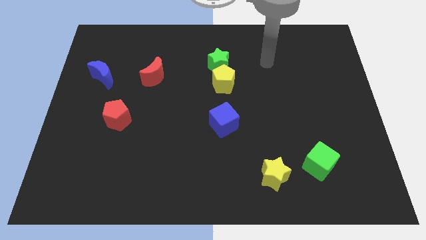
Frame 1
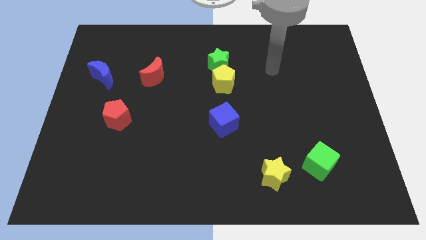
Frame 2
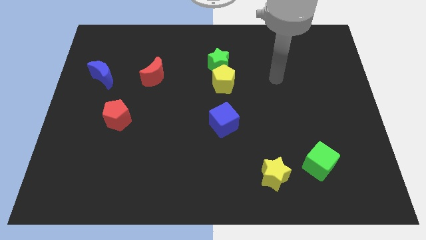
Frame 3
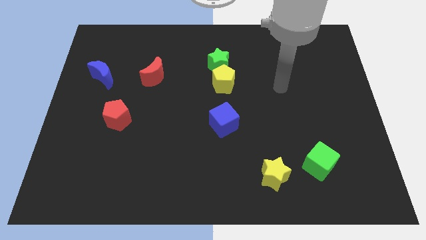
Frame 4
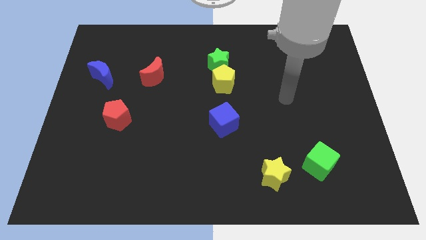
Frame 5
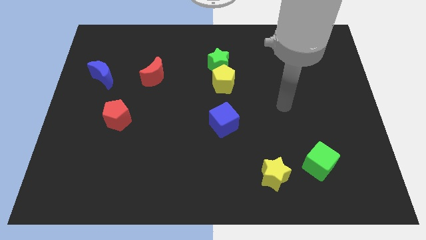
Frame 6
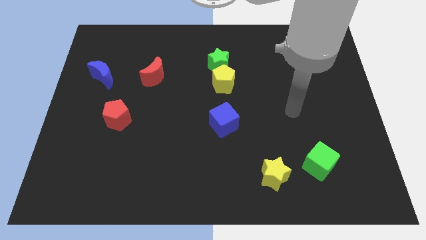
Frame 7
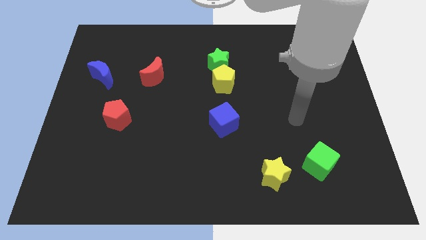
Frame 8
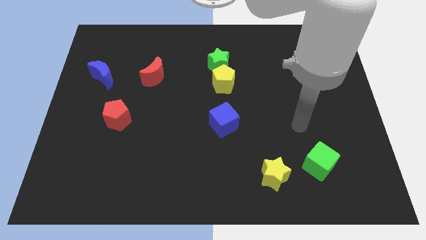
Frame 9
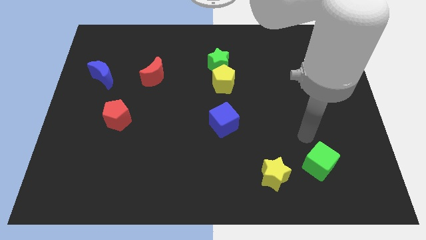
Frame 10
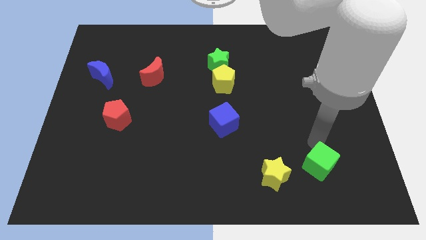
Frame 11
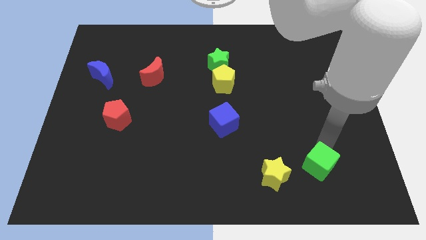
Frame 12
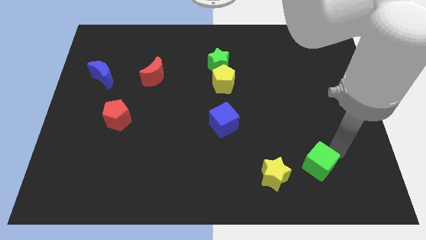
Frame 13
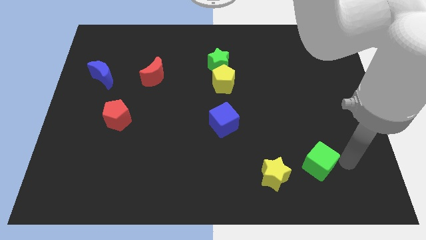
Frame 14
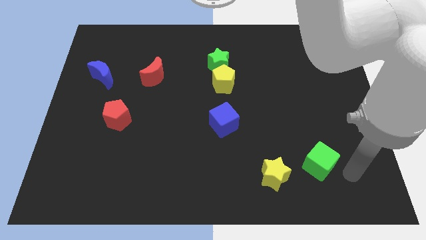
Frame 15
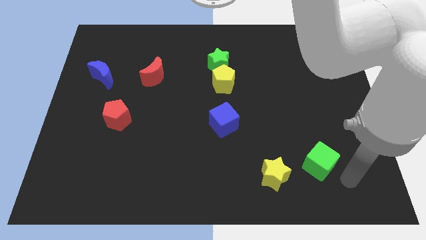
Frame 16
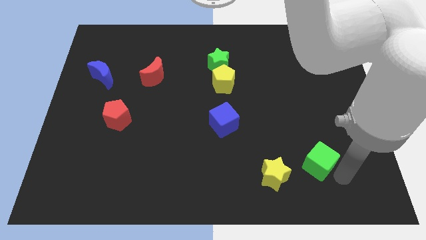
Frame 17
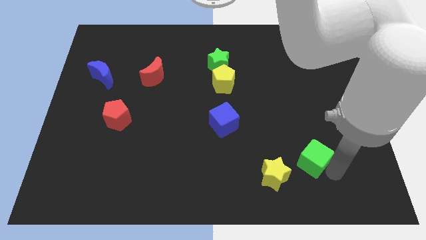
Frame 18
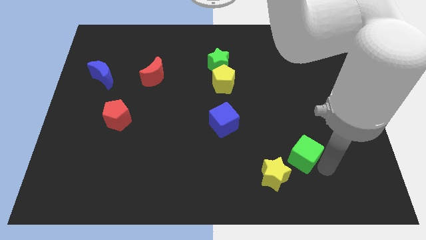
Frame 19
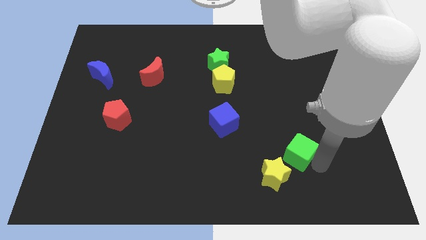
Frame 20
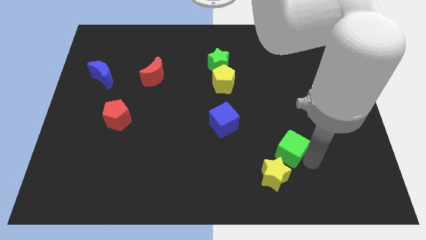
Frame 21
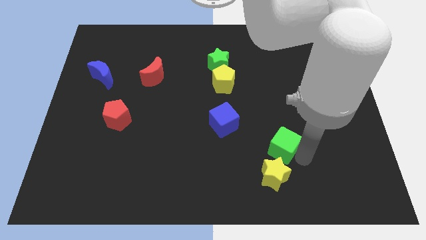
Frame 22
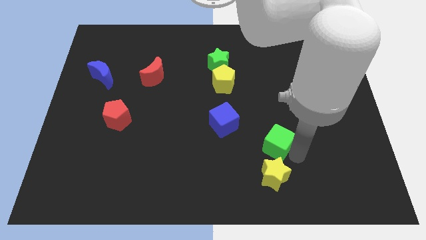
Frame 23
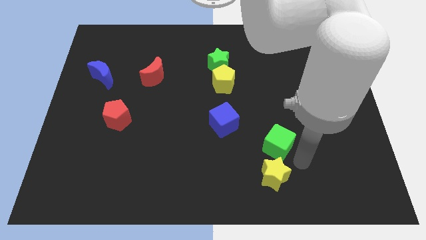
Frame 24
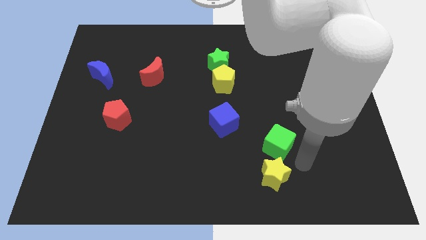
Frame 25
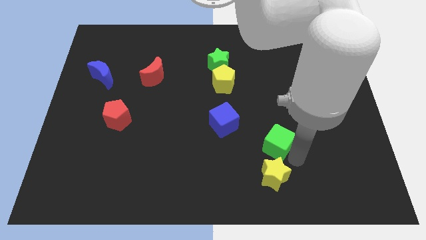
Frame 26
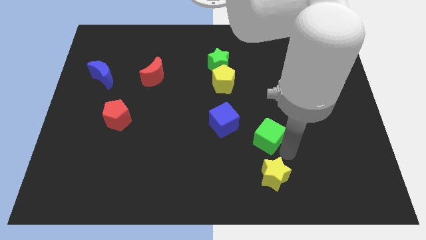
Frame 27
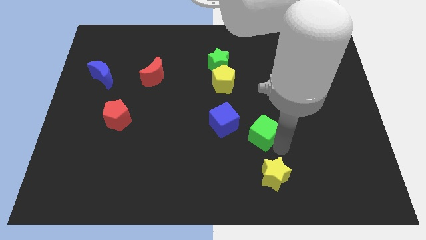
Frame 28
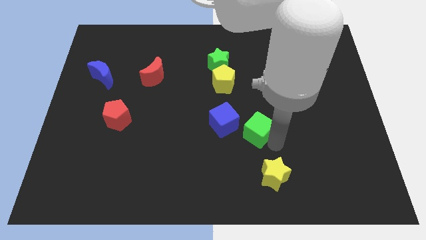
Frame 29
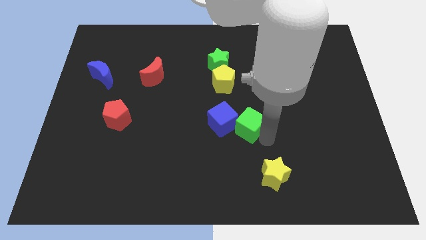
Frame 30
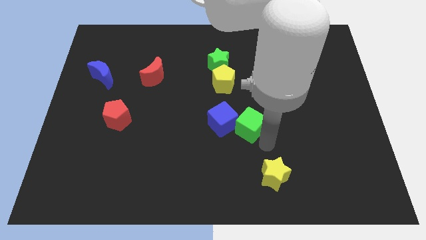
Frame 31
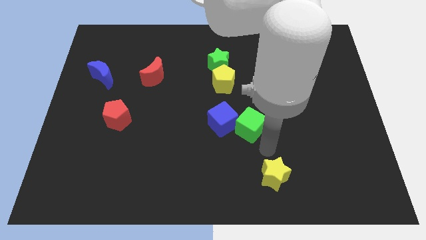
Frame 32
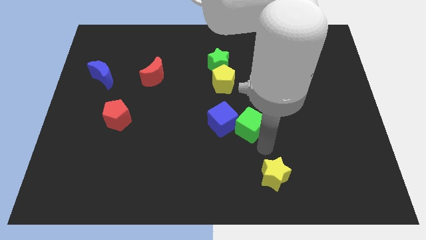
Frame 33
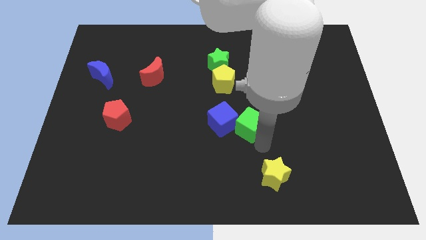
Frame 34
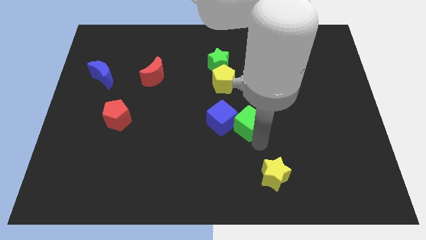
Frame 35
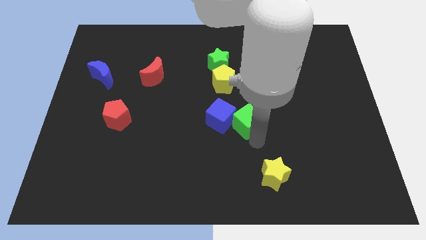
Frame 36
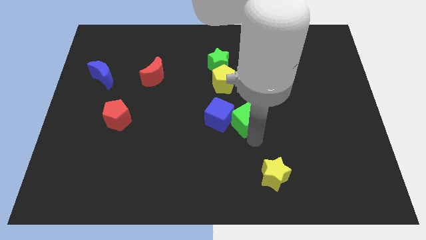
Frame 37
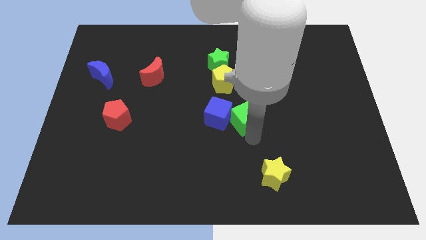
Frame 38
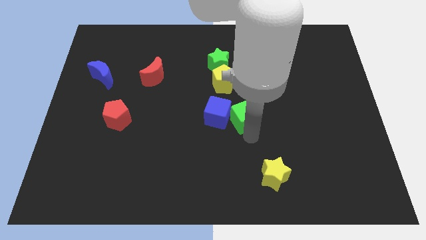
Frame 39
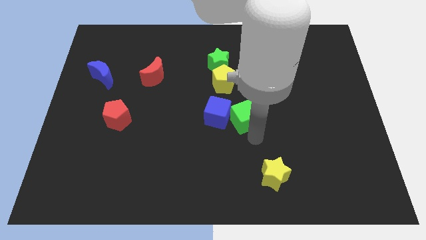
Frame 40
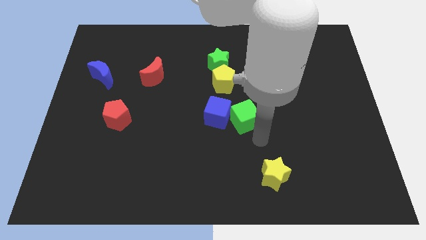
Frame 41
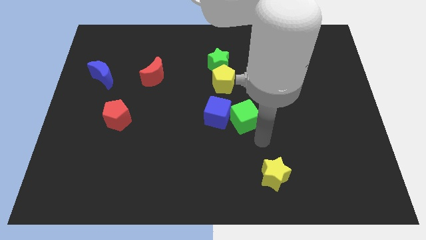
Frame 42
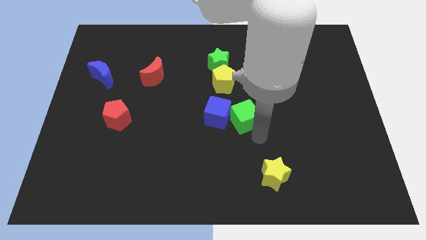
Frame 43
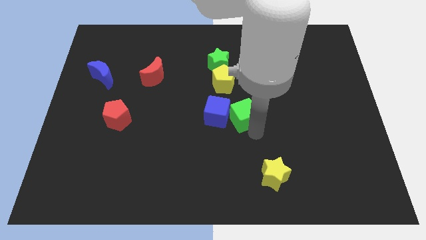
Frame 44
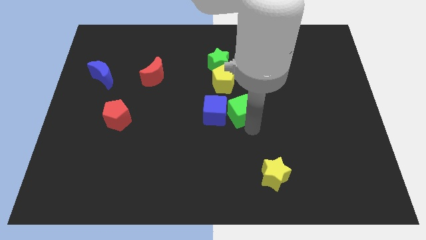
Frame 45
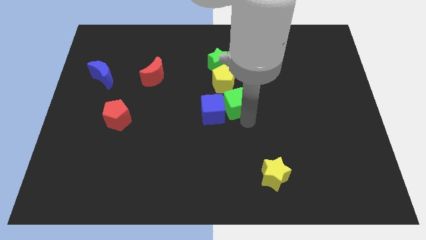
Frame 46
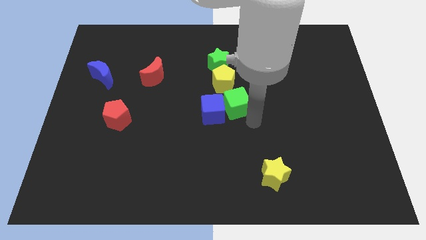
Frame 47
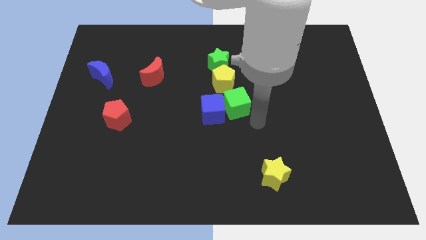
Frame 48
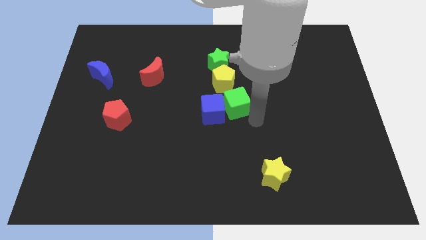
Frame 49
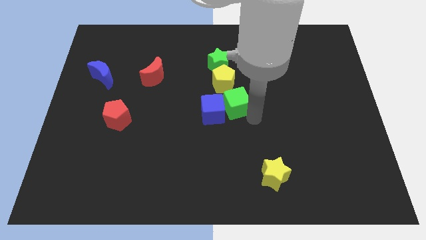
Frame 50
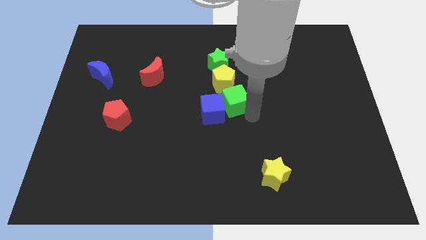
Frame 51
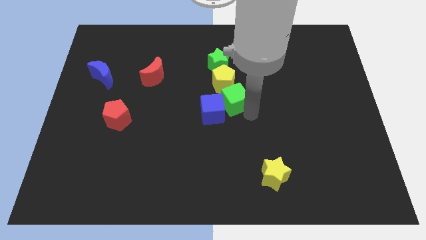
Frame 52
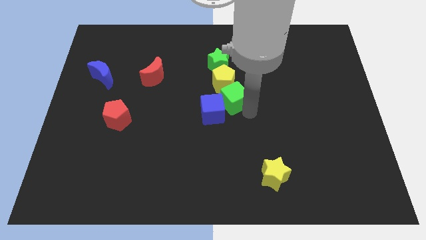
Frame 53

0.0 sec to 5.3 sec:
put the green cube towards the yellow pentagon

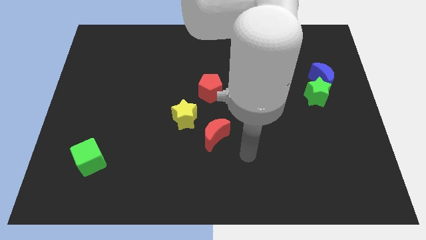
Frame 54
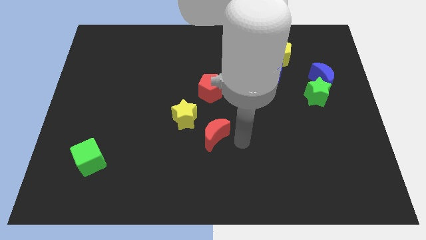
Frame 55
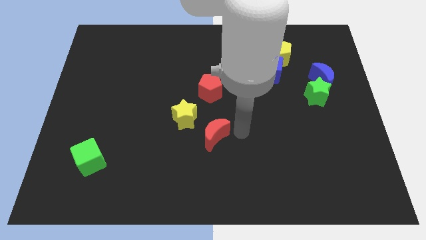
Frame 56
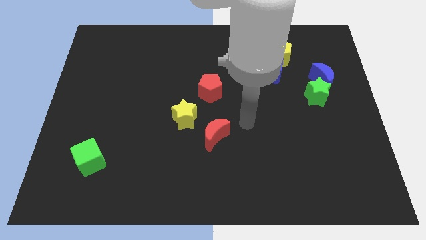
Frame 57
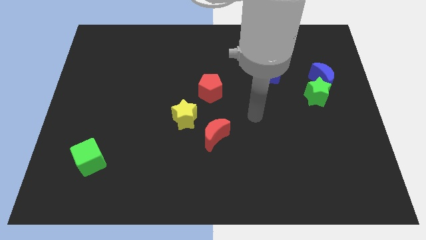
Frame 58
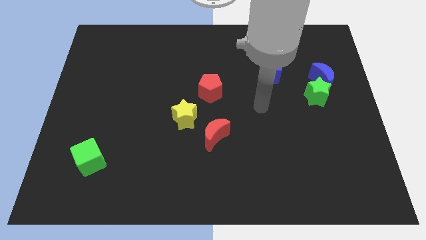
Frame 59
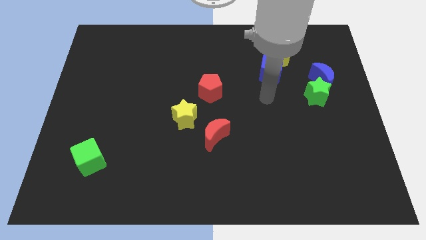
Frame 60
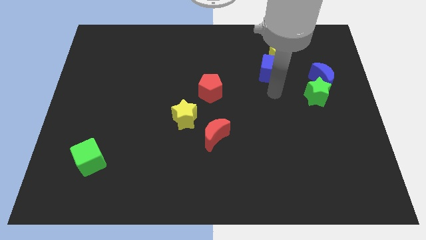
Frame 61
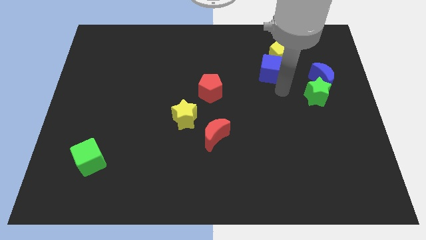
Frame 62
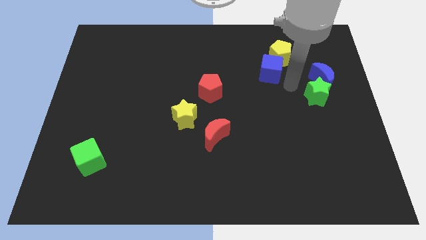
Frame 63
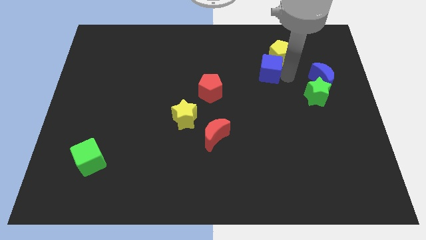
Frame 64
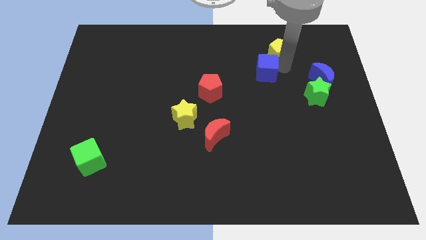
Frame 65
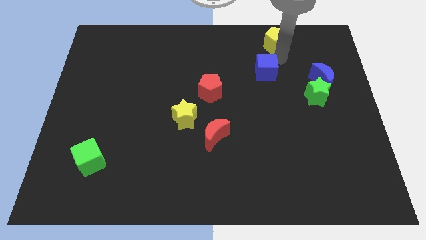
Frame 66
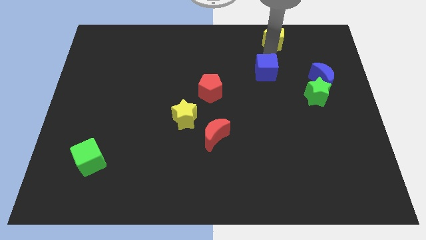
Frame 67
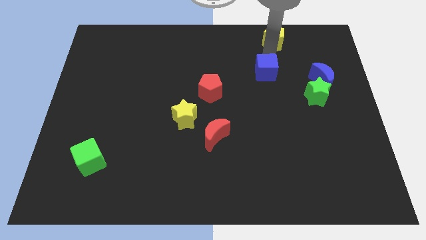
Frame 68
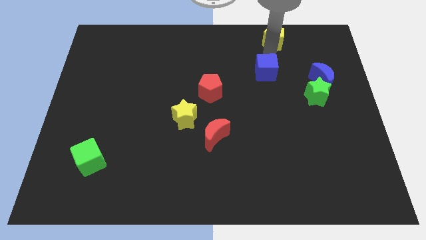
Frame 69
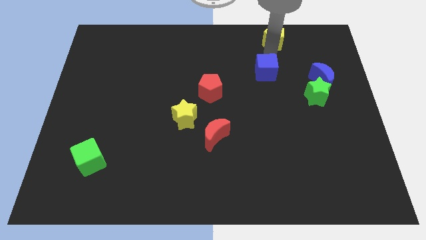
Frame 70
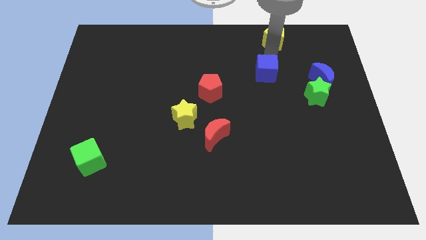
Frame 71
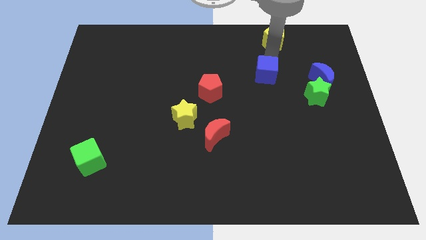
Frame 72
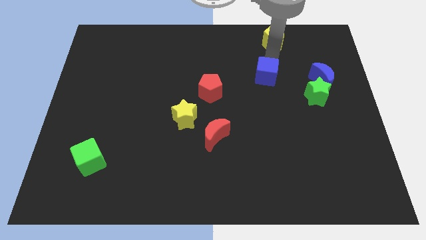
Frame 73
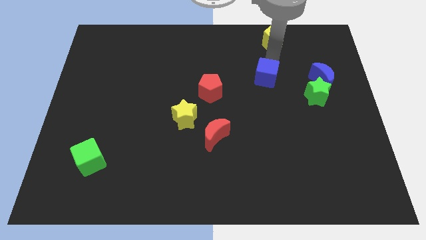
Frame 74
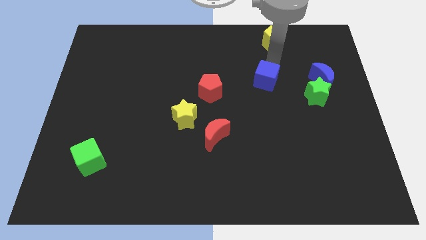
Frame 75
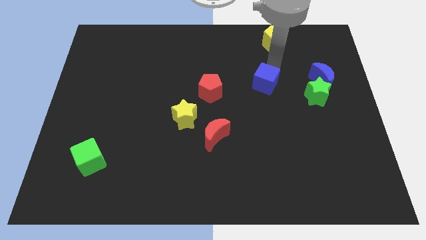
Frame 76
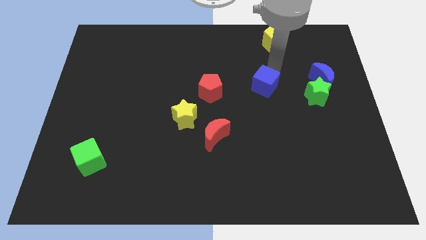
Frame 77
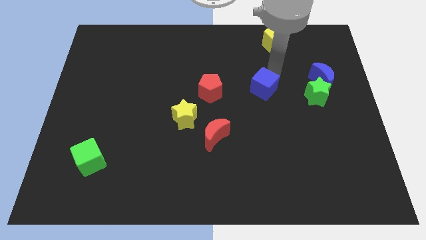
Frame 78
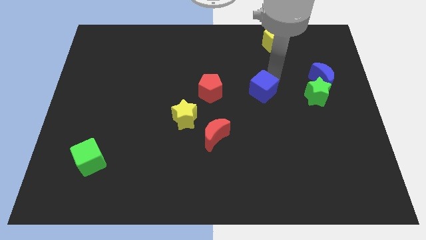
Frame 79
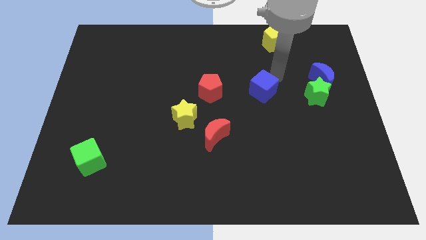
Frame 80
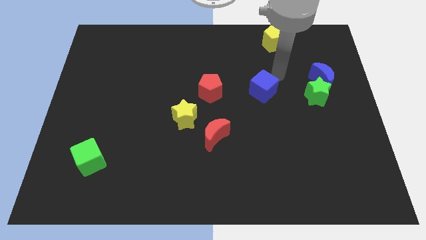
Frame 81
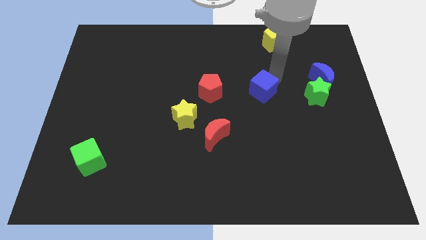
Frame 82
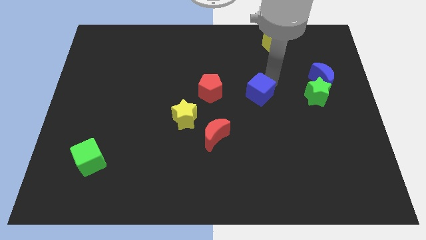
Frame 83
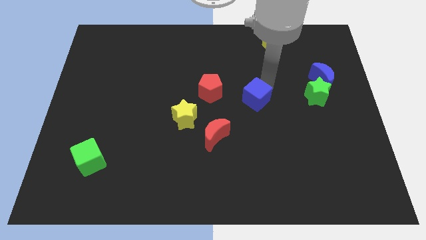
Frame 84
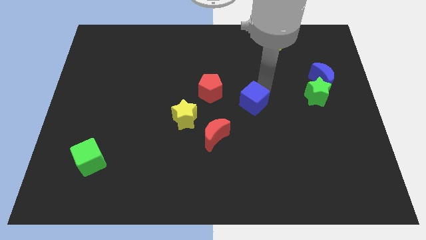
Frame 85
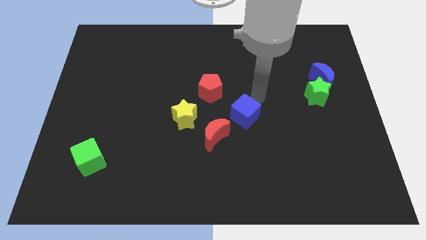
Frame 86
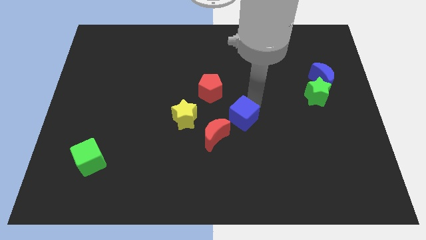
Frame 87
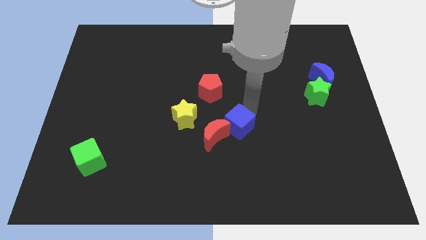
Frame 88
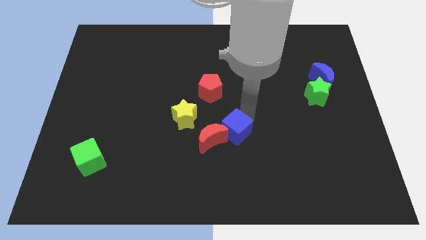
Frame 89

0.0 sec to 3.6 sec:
slide the blue cube towards the red moon
